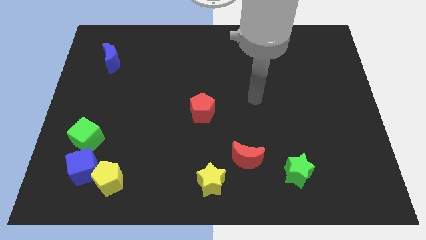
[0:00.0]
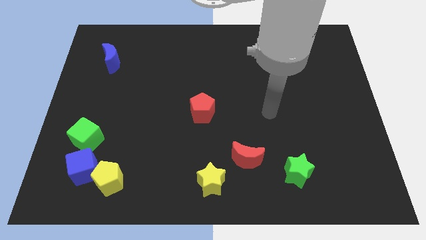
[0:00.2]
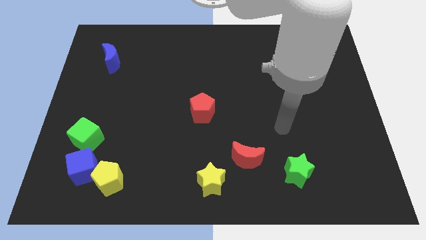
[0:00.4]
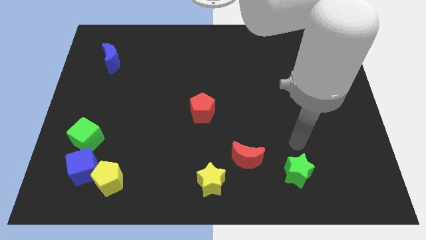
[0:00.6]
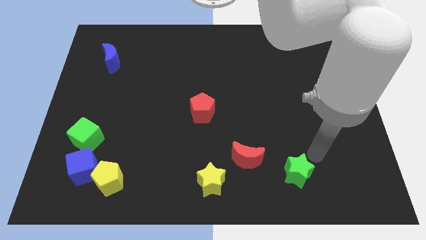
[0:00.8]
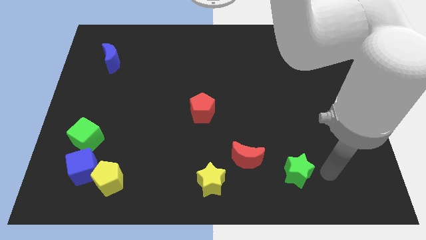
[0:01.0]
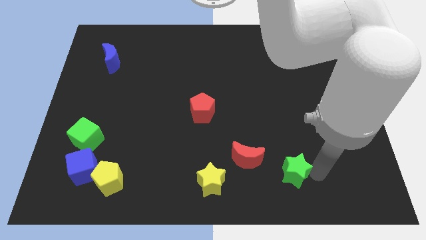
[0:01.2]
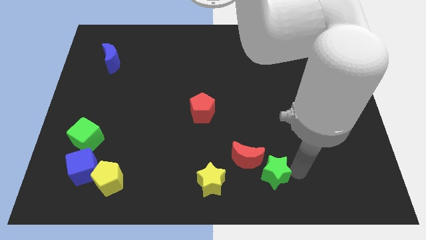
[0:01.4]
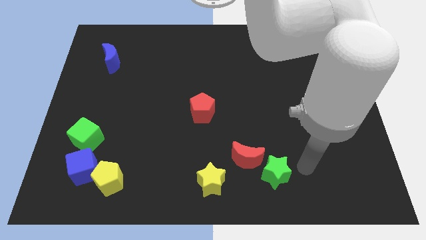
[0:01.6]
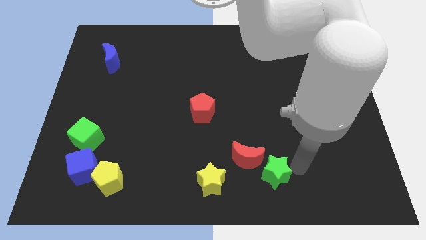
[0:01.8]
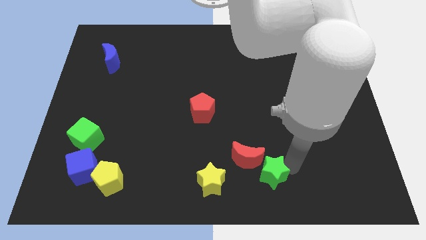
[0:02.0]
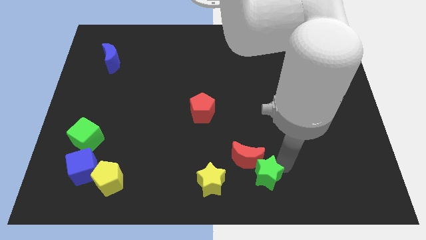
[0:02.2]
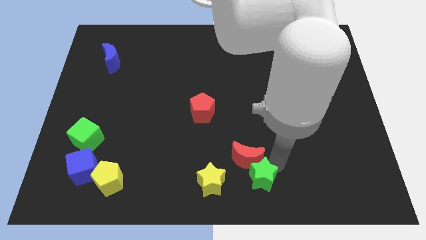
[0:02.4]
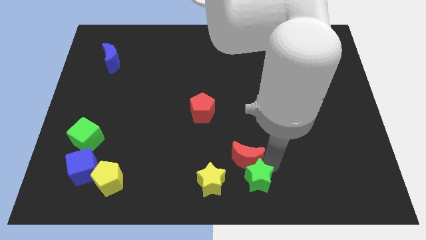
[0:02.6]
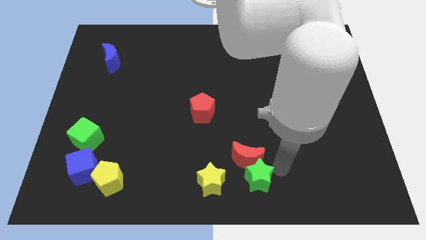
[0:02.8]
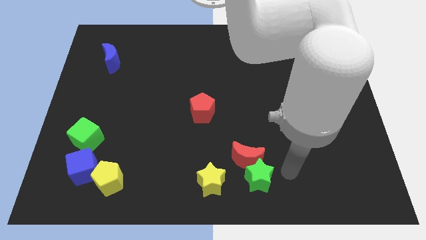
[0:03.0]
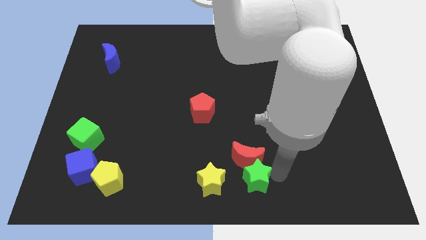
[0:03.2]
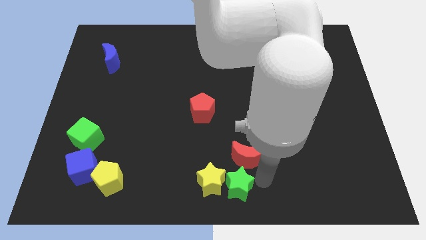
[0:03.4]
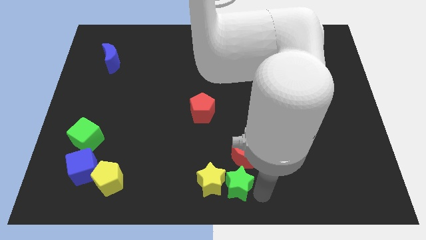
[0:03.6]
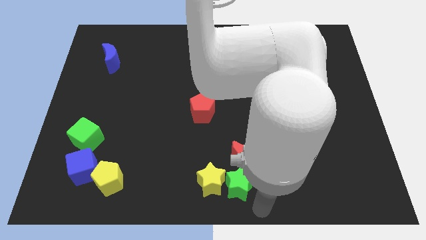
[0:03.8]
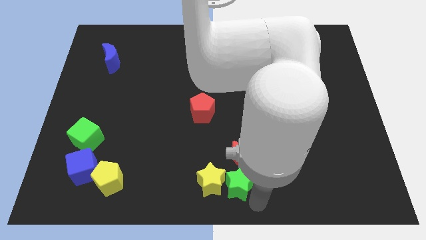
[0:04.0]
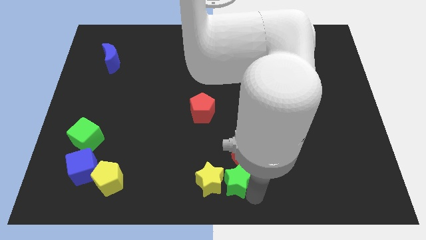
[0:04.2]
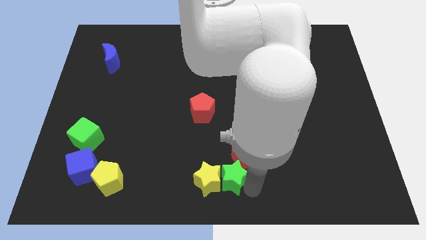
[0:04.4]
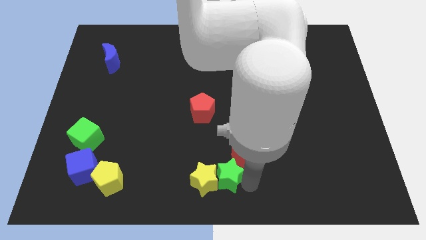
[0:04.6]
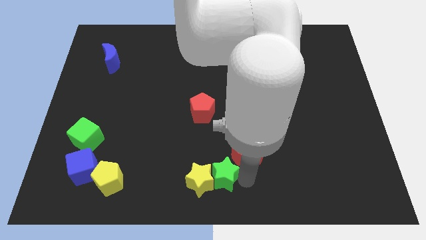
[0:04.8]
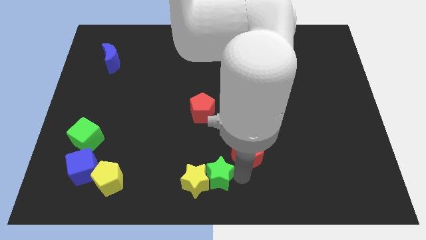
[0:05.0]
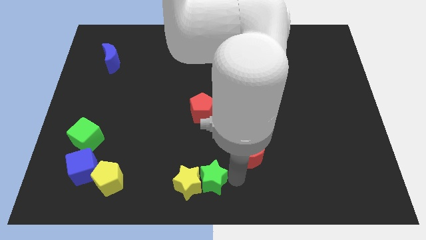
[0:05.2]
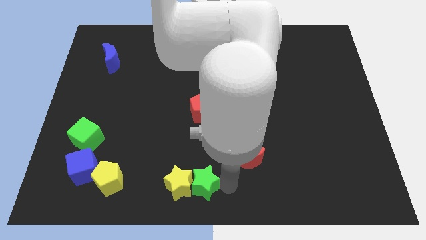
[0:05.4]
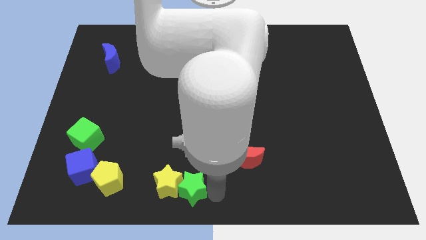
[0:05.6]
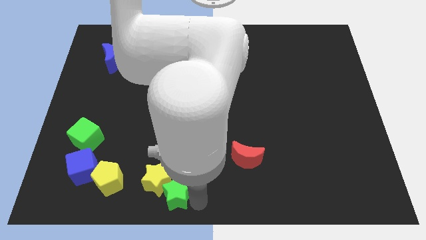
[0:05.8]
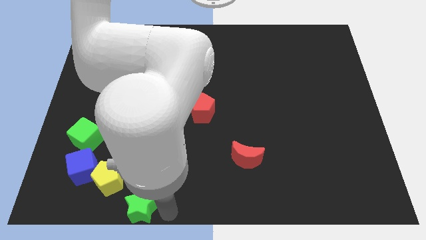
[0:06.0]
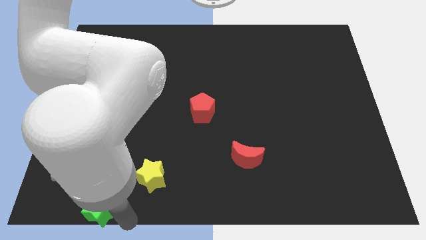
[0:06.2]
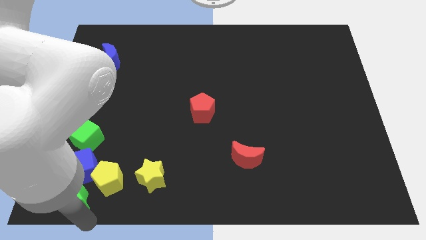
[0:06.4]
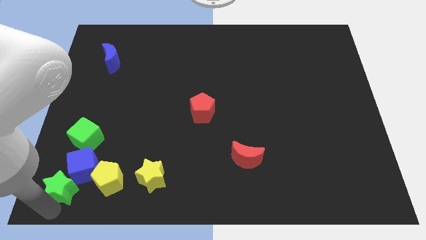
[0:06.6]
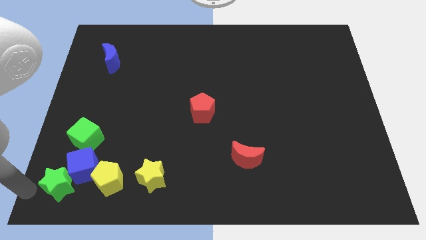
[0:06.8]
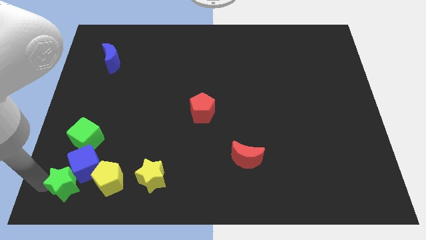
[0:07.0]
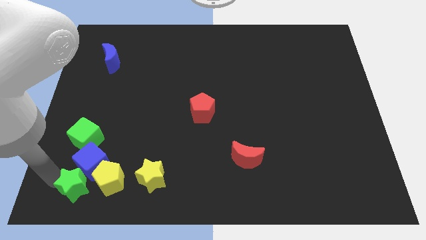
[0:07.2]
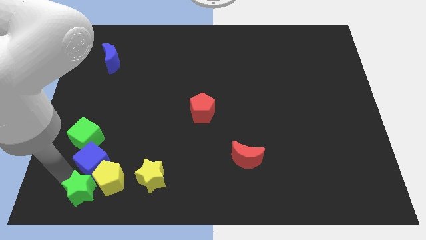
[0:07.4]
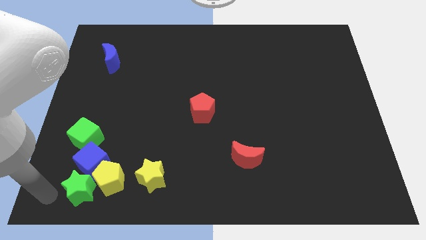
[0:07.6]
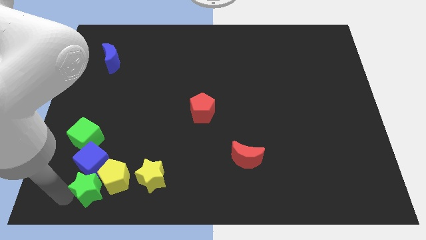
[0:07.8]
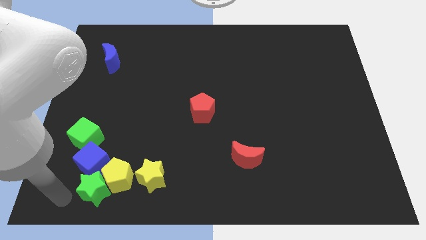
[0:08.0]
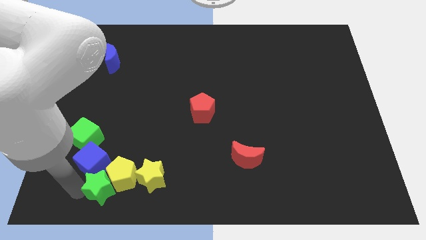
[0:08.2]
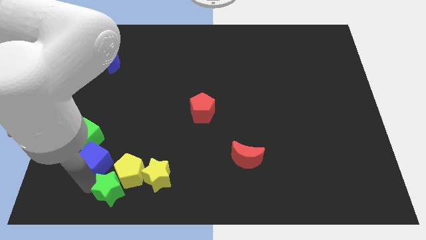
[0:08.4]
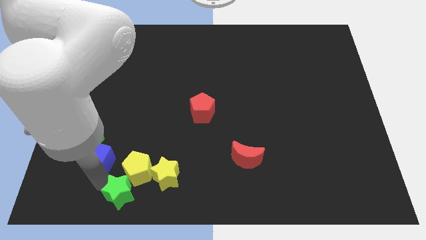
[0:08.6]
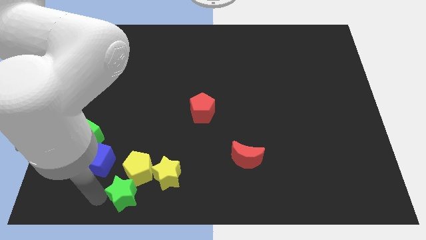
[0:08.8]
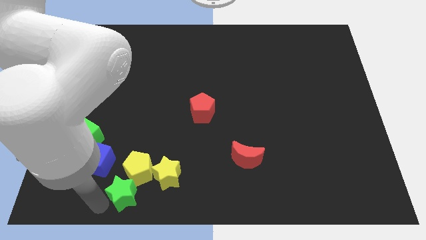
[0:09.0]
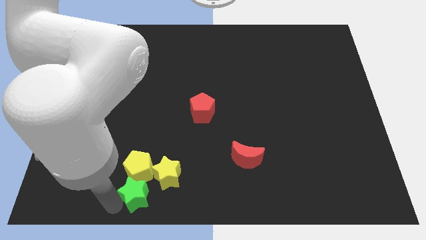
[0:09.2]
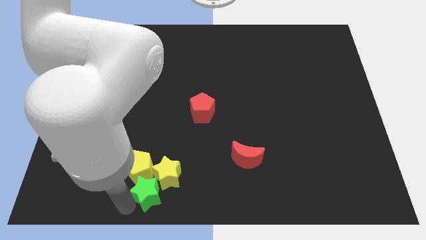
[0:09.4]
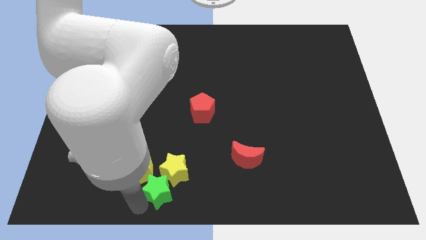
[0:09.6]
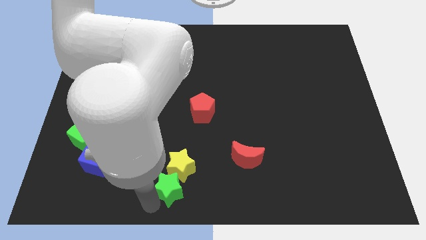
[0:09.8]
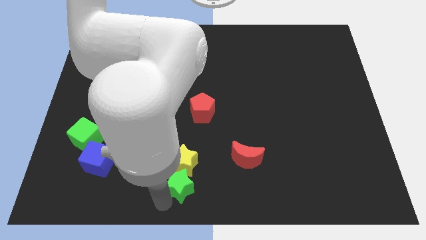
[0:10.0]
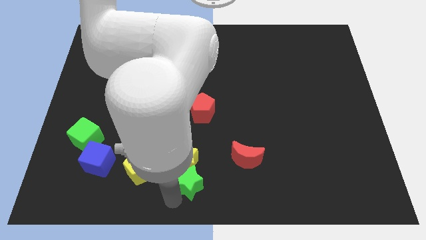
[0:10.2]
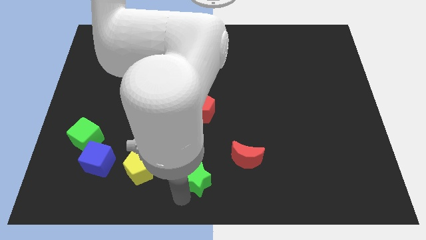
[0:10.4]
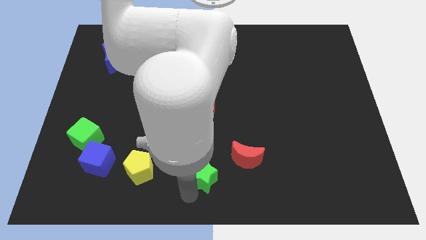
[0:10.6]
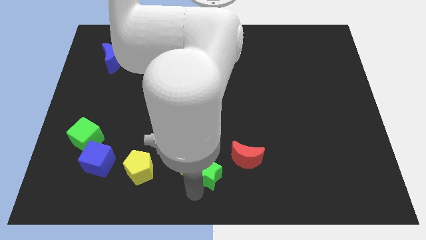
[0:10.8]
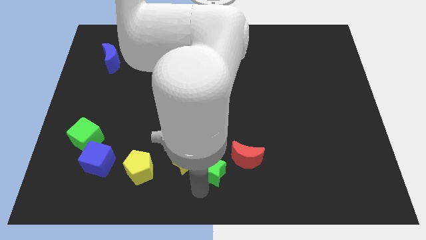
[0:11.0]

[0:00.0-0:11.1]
move the green star below the red pentagon

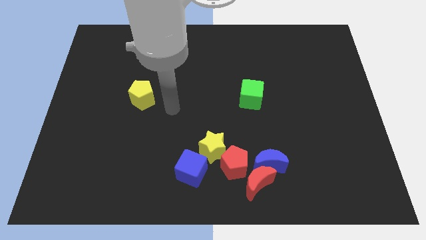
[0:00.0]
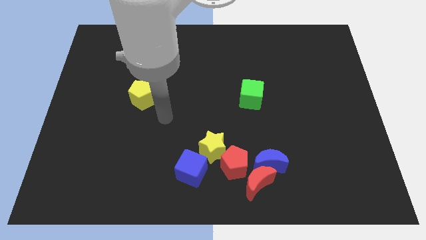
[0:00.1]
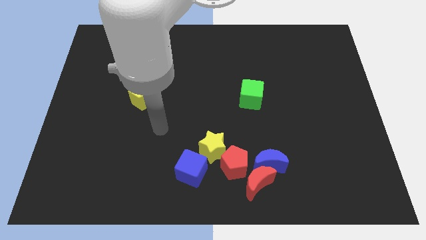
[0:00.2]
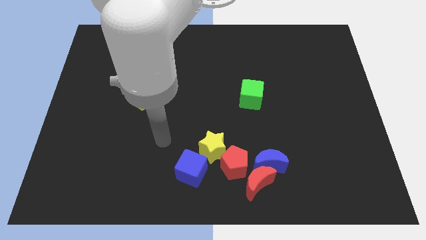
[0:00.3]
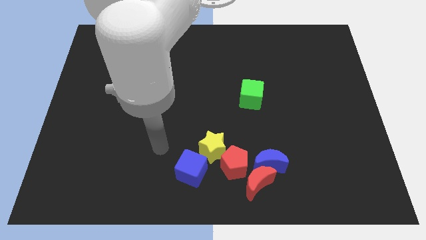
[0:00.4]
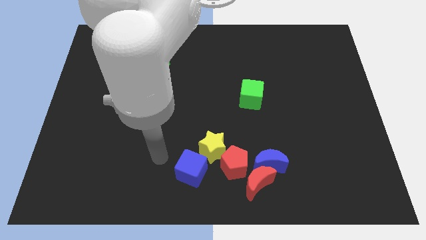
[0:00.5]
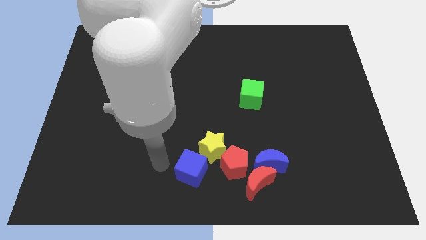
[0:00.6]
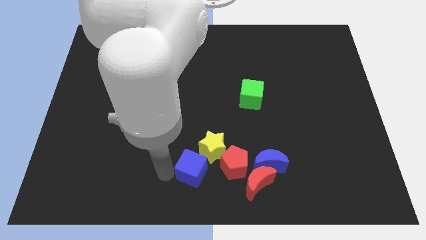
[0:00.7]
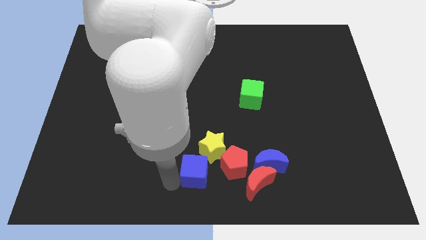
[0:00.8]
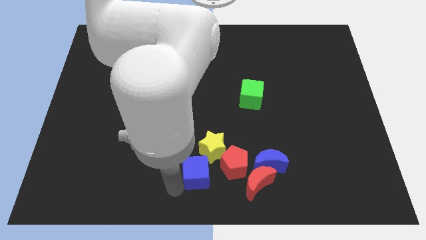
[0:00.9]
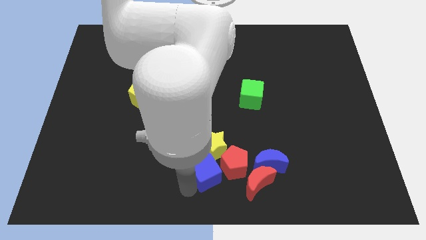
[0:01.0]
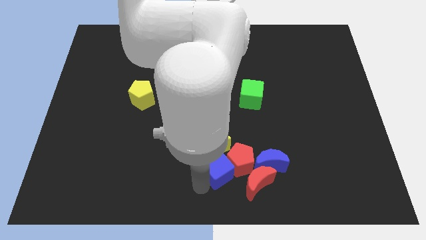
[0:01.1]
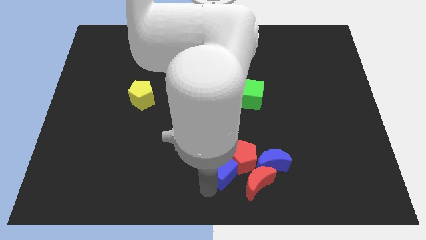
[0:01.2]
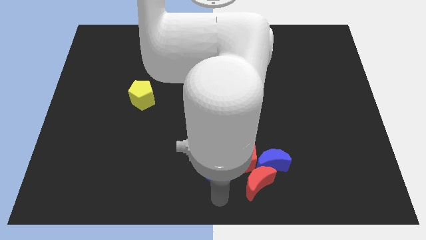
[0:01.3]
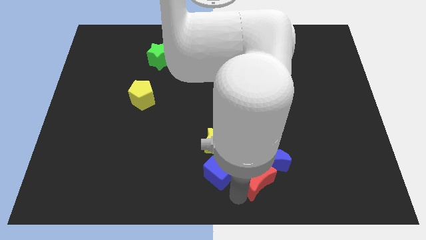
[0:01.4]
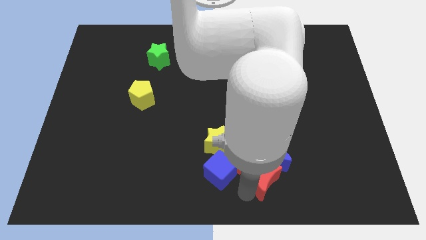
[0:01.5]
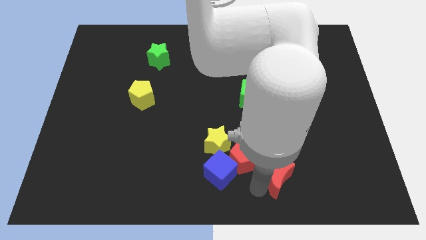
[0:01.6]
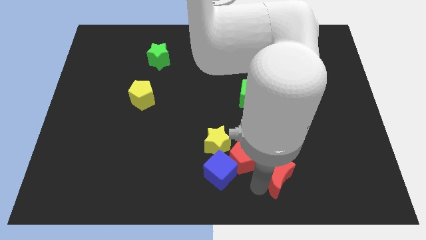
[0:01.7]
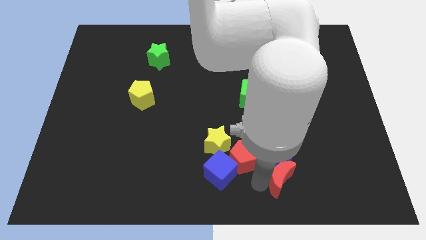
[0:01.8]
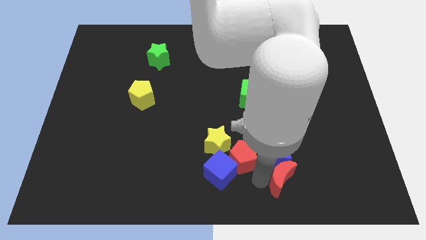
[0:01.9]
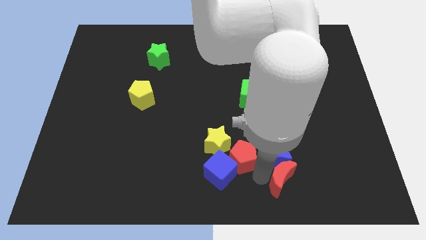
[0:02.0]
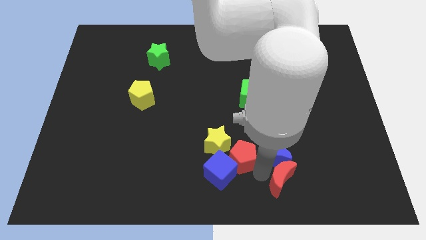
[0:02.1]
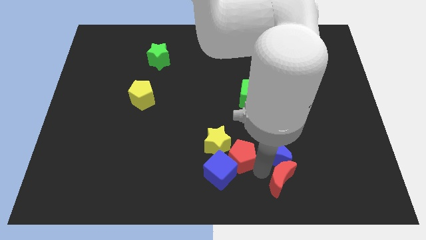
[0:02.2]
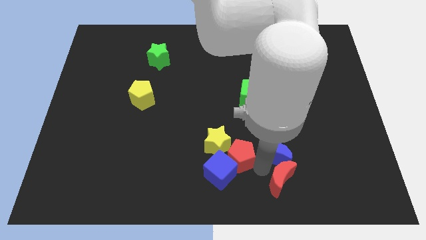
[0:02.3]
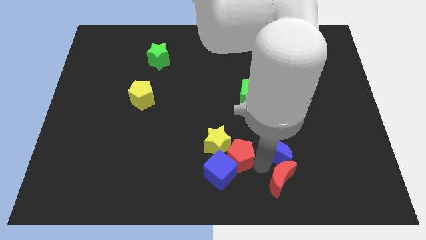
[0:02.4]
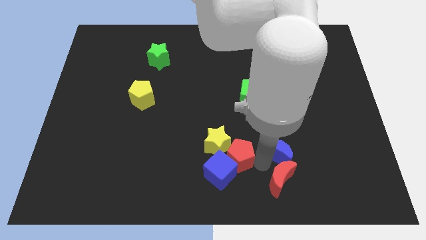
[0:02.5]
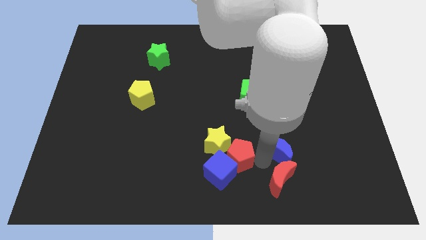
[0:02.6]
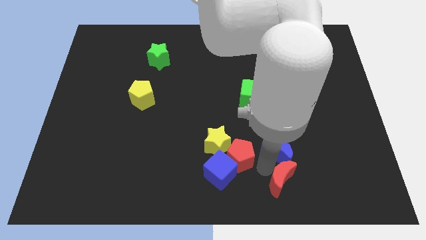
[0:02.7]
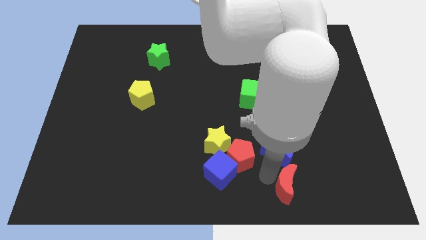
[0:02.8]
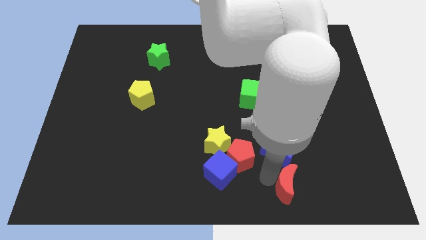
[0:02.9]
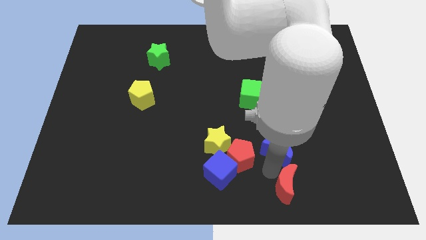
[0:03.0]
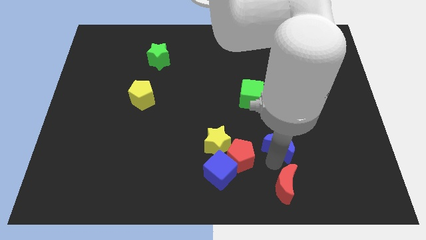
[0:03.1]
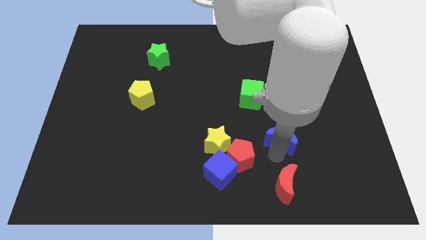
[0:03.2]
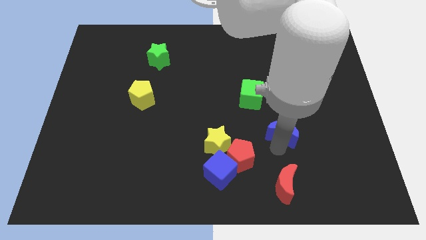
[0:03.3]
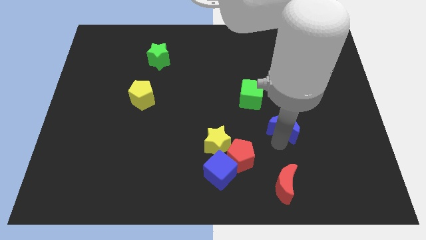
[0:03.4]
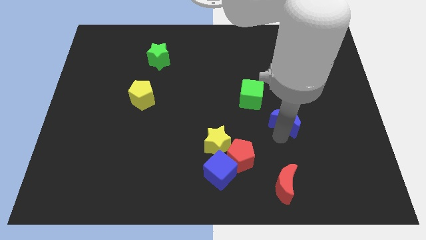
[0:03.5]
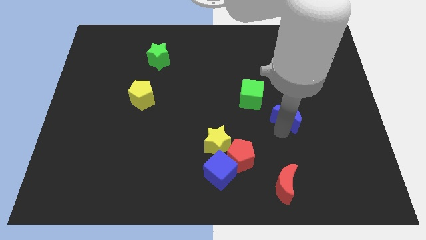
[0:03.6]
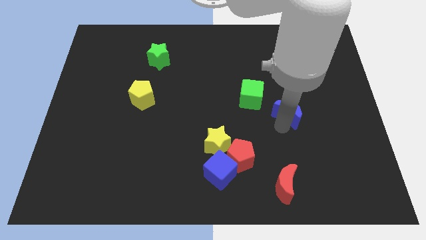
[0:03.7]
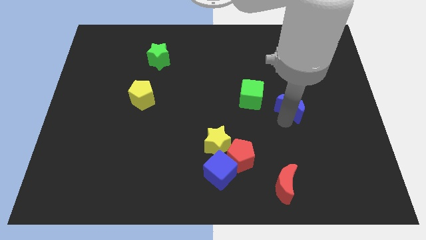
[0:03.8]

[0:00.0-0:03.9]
put the blue moon to the right of the green cube
